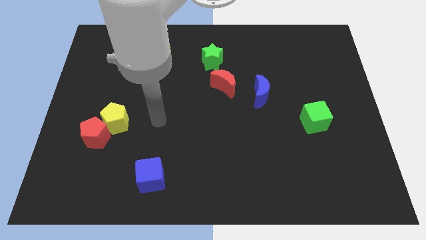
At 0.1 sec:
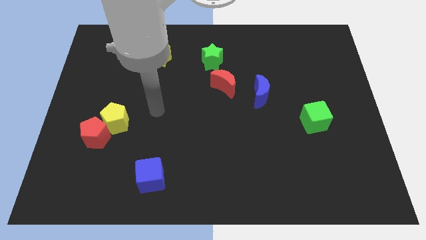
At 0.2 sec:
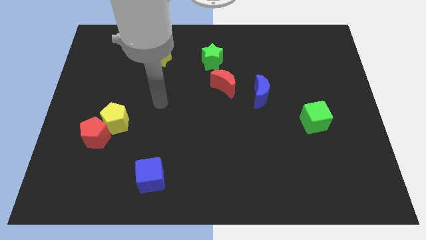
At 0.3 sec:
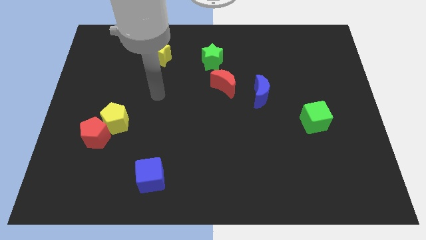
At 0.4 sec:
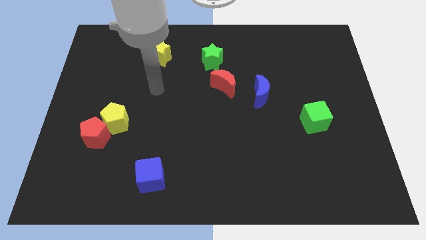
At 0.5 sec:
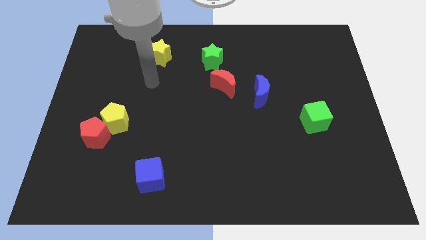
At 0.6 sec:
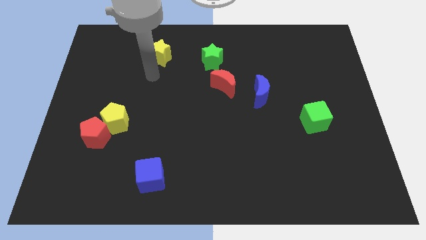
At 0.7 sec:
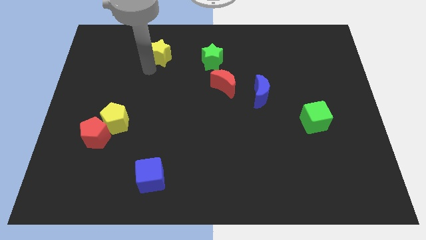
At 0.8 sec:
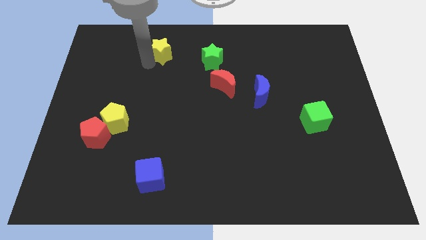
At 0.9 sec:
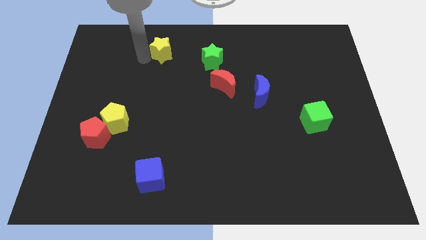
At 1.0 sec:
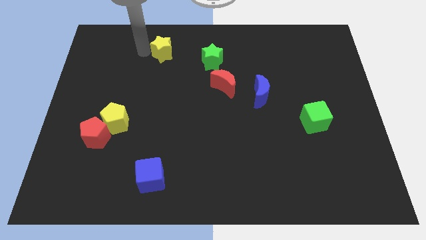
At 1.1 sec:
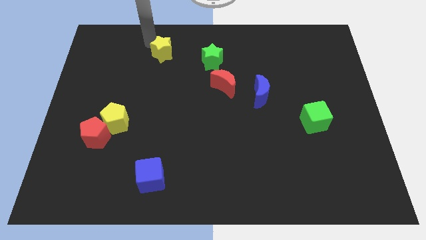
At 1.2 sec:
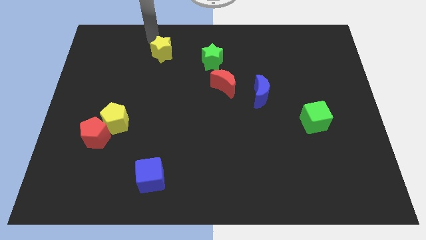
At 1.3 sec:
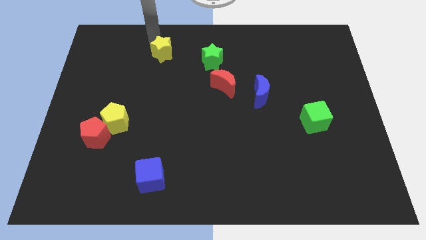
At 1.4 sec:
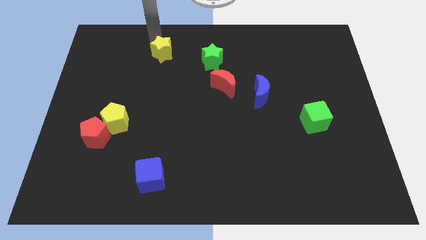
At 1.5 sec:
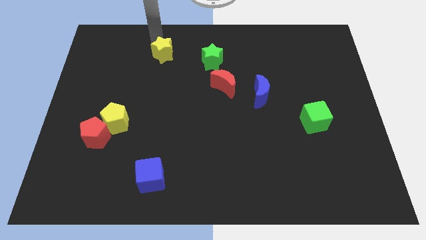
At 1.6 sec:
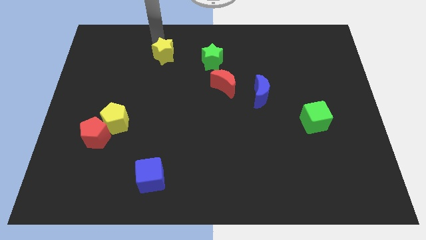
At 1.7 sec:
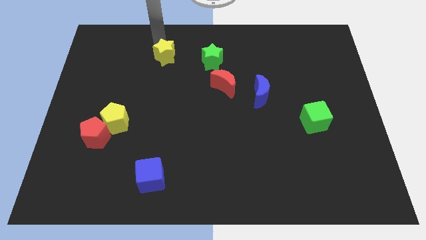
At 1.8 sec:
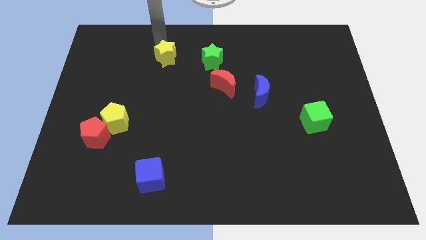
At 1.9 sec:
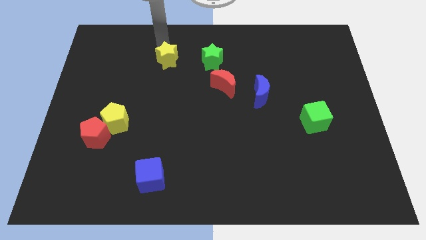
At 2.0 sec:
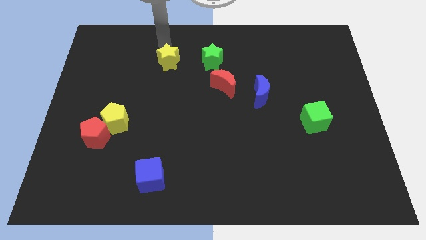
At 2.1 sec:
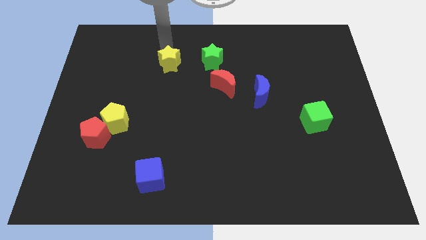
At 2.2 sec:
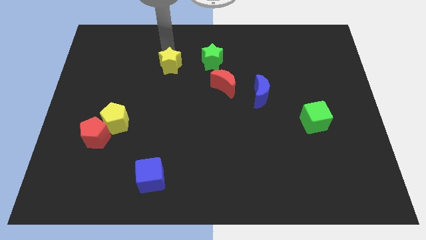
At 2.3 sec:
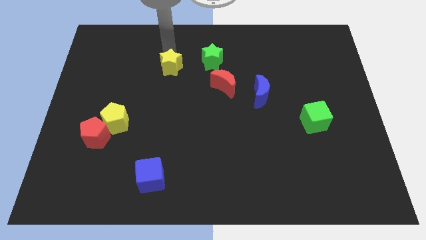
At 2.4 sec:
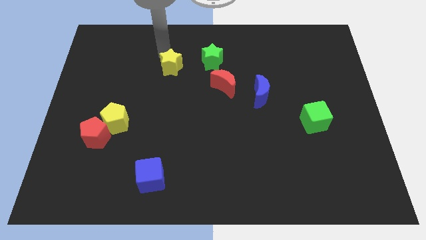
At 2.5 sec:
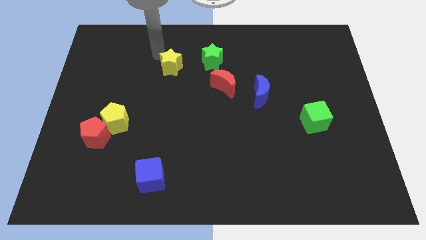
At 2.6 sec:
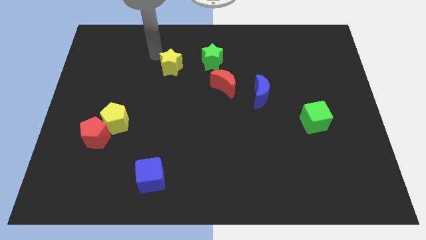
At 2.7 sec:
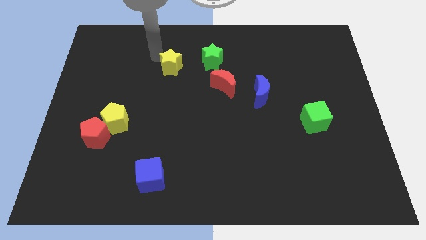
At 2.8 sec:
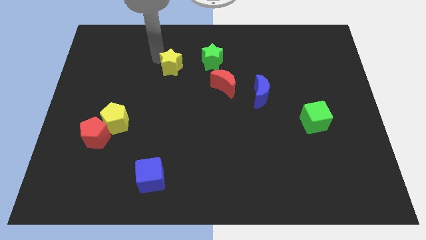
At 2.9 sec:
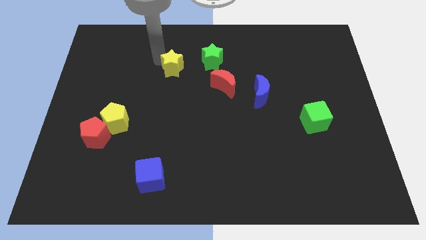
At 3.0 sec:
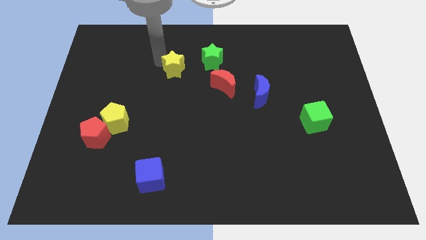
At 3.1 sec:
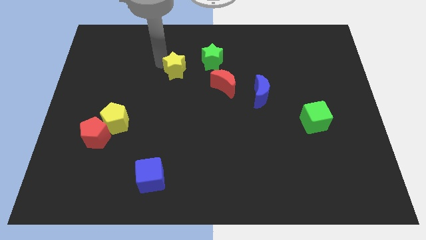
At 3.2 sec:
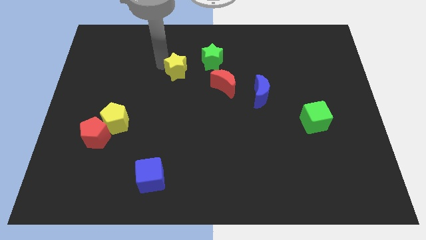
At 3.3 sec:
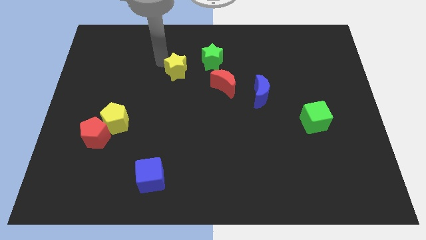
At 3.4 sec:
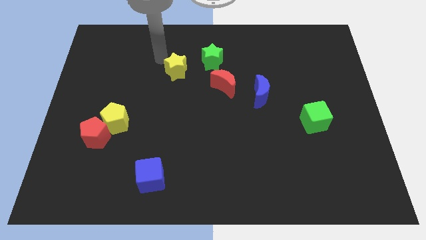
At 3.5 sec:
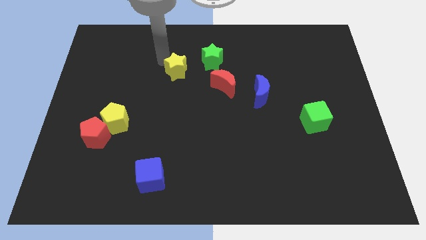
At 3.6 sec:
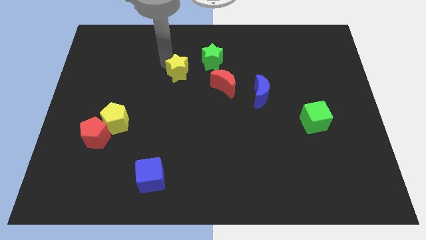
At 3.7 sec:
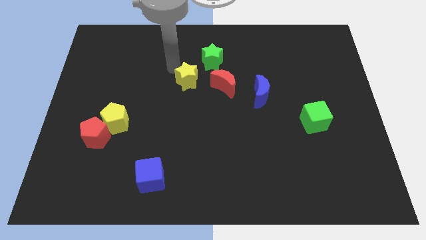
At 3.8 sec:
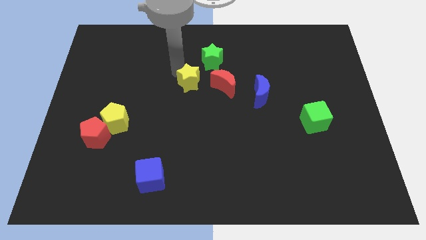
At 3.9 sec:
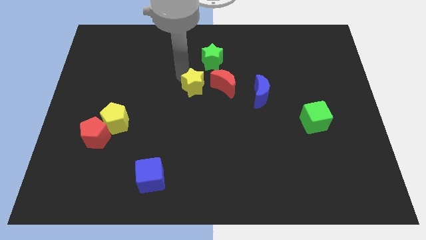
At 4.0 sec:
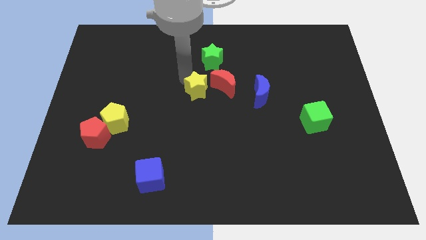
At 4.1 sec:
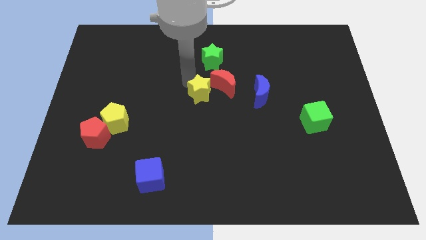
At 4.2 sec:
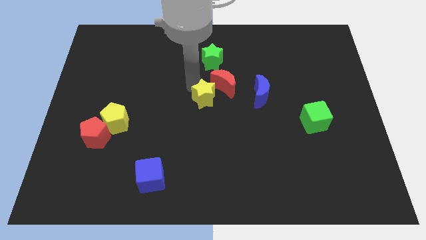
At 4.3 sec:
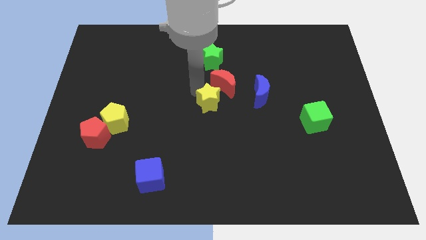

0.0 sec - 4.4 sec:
slide the yellow star diagonally downwards and right

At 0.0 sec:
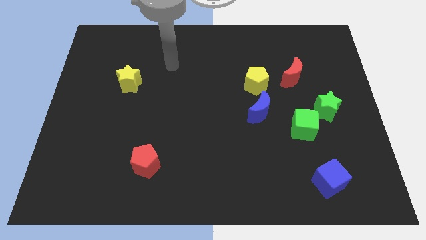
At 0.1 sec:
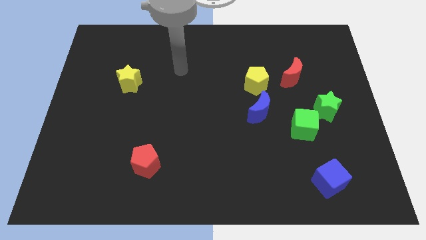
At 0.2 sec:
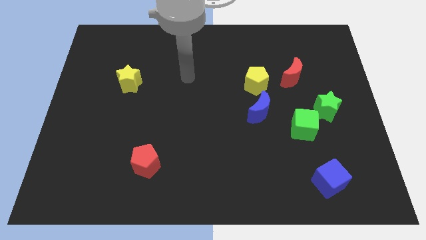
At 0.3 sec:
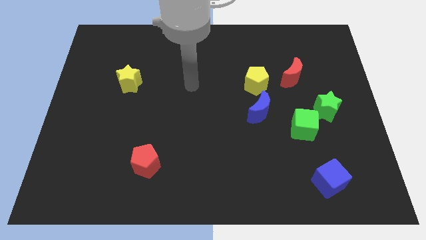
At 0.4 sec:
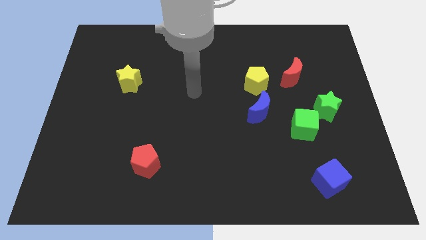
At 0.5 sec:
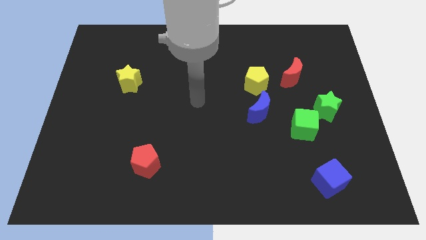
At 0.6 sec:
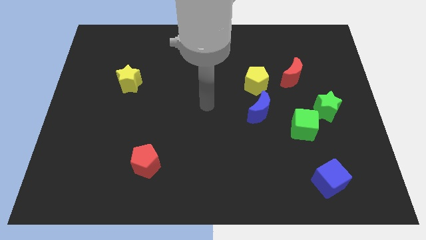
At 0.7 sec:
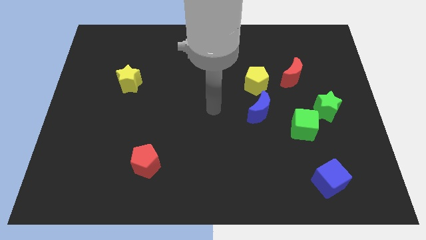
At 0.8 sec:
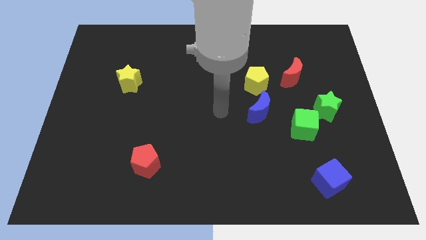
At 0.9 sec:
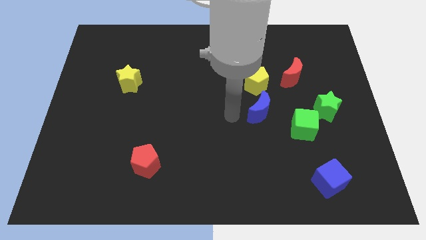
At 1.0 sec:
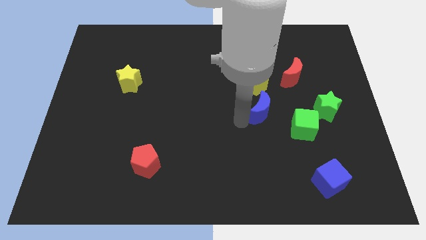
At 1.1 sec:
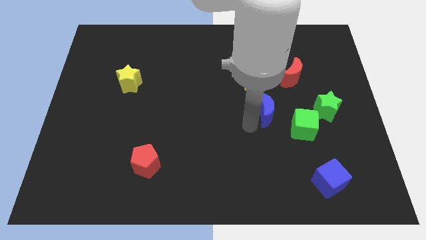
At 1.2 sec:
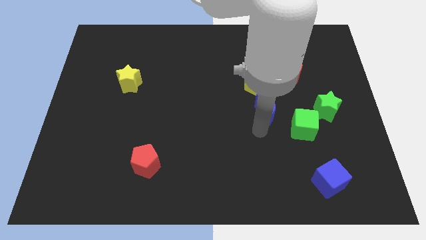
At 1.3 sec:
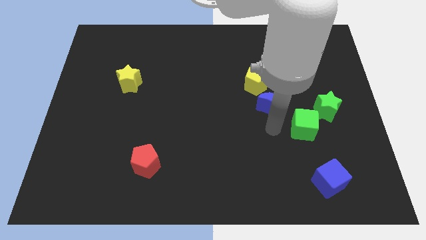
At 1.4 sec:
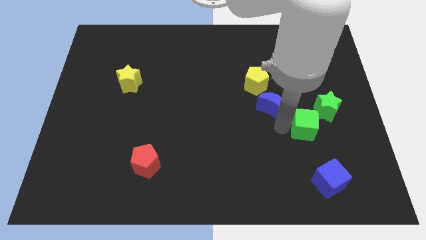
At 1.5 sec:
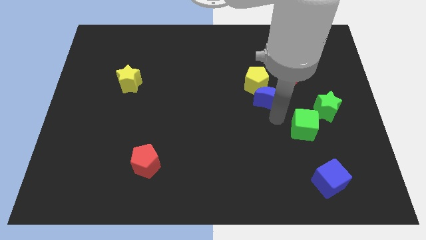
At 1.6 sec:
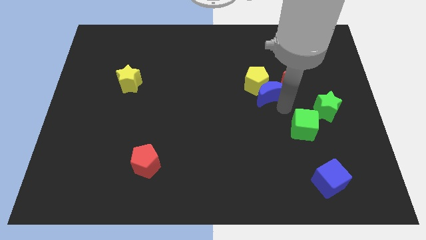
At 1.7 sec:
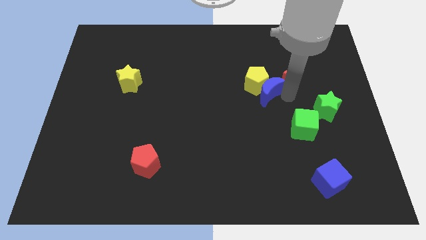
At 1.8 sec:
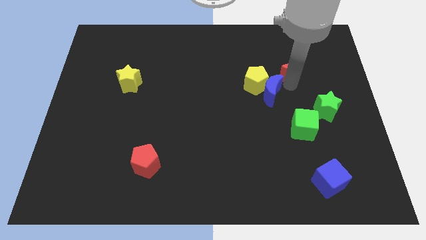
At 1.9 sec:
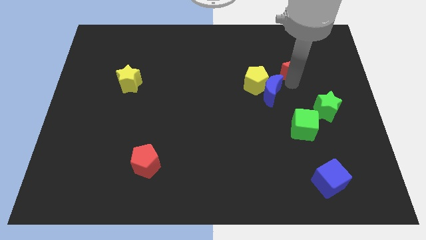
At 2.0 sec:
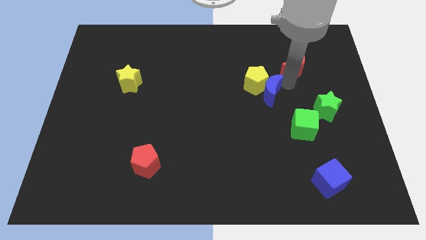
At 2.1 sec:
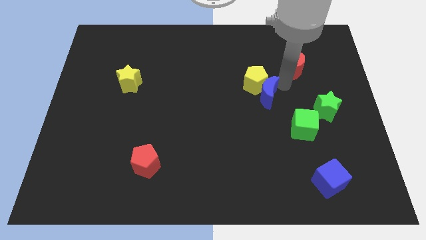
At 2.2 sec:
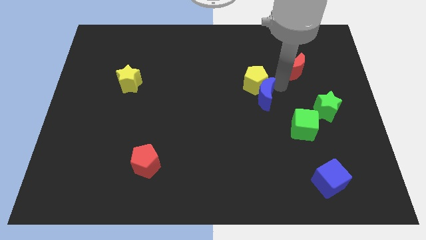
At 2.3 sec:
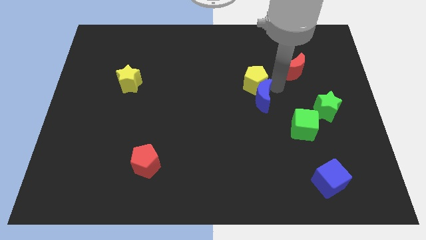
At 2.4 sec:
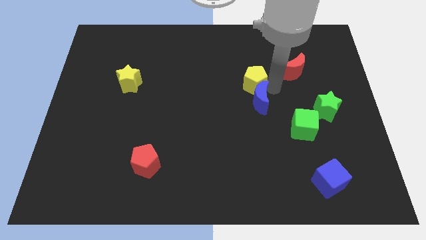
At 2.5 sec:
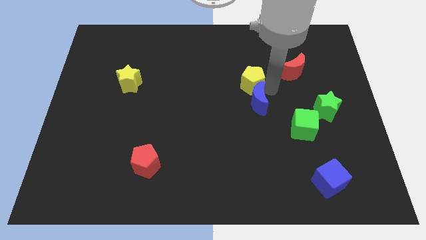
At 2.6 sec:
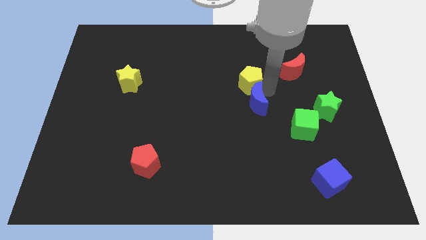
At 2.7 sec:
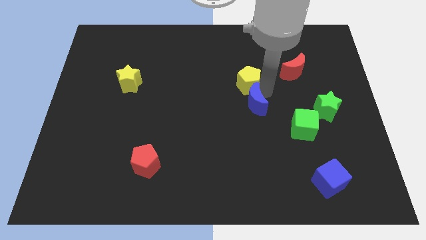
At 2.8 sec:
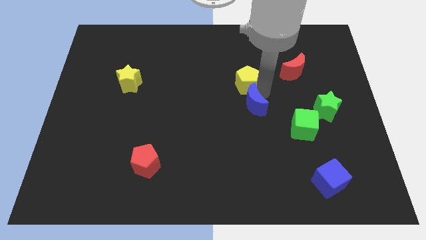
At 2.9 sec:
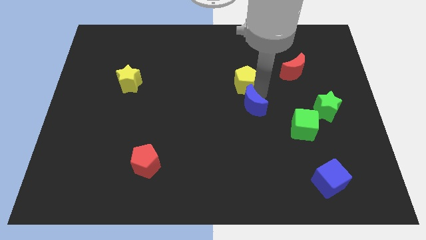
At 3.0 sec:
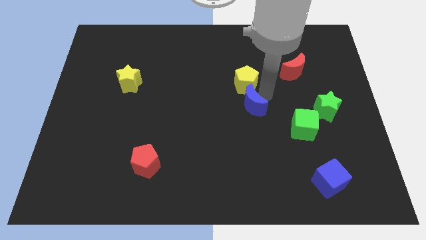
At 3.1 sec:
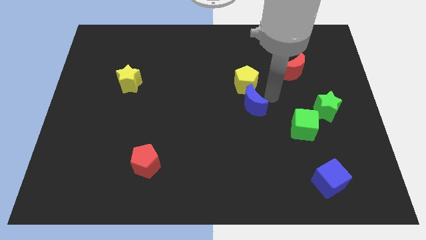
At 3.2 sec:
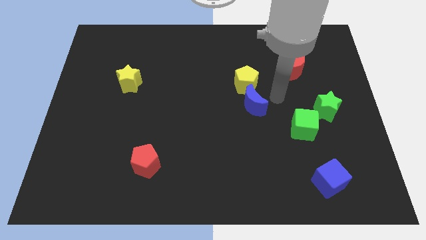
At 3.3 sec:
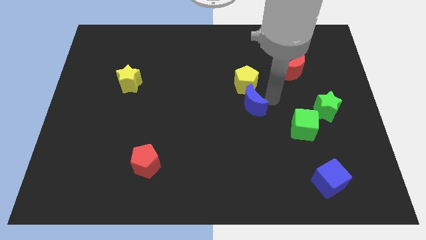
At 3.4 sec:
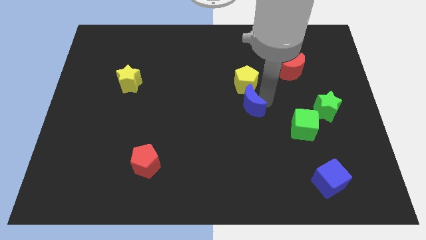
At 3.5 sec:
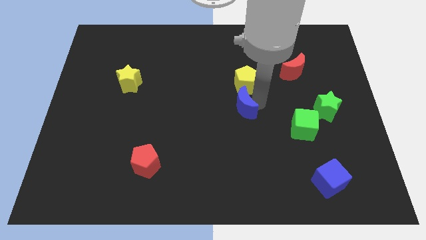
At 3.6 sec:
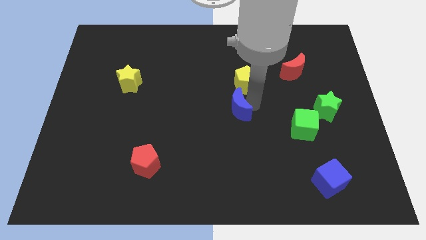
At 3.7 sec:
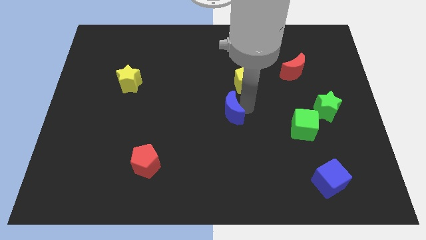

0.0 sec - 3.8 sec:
slightly slide the blue moon left
